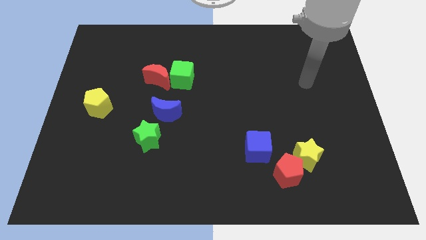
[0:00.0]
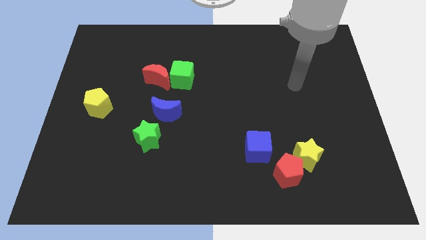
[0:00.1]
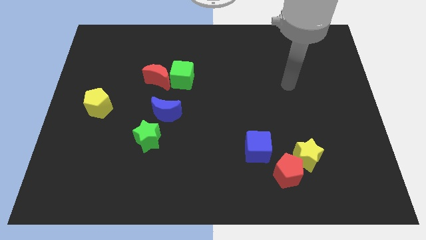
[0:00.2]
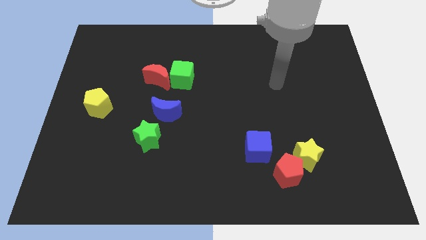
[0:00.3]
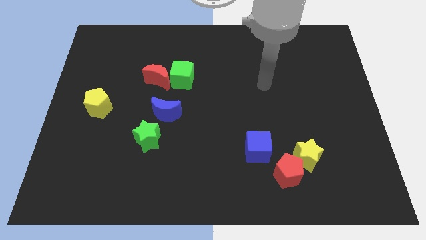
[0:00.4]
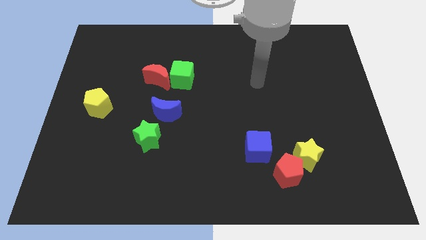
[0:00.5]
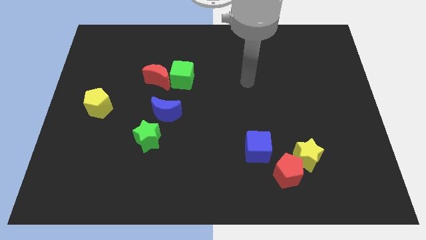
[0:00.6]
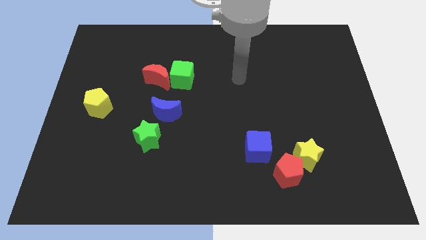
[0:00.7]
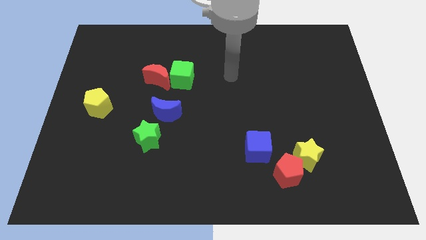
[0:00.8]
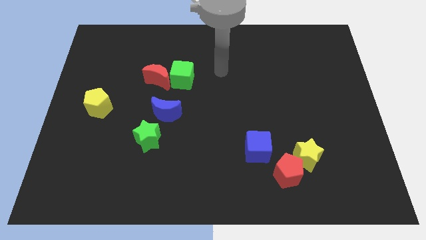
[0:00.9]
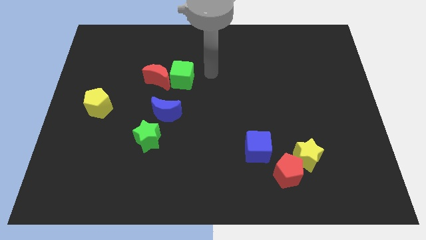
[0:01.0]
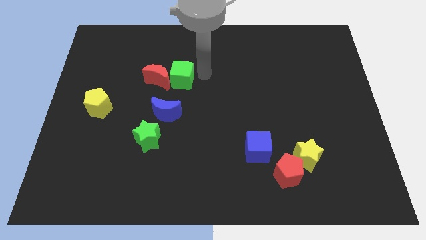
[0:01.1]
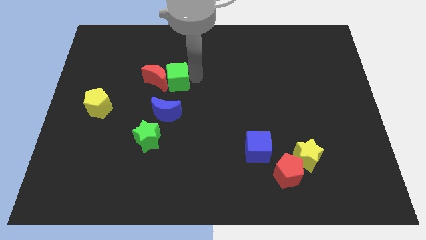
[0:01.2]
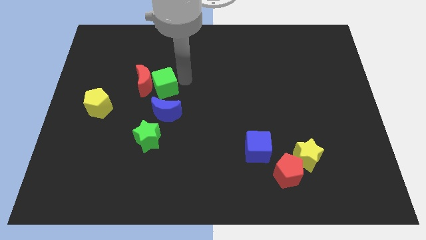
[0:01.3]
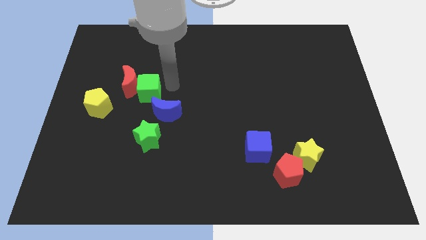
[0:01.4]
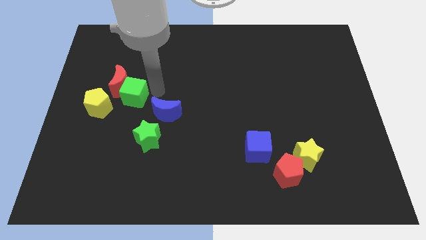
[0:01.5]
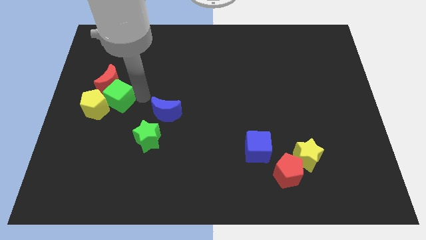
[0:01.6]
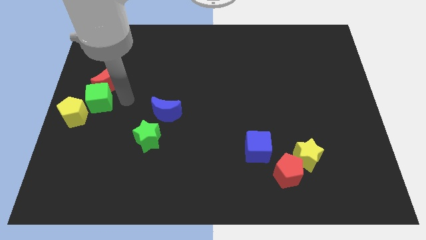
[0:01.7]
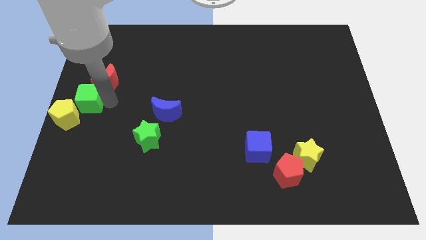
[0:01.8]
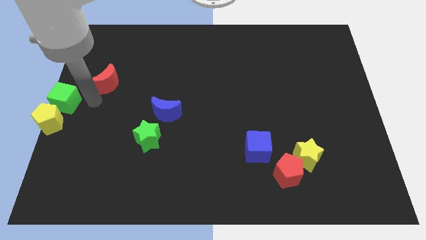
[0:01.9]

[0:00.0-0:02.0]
pull the red moon apart from the green cube

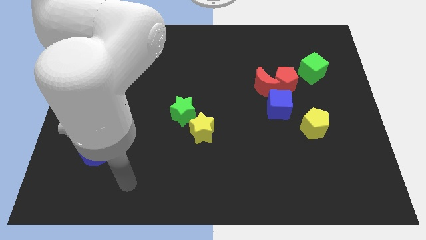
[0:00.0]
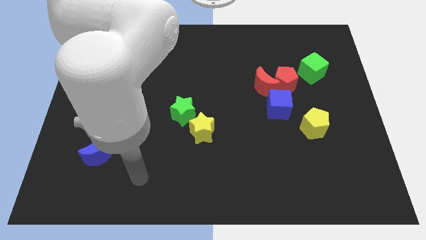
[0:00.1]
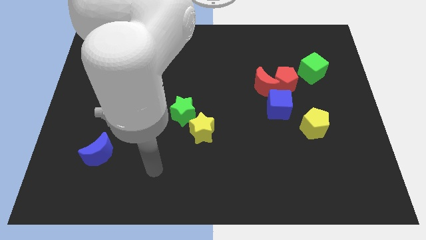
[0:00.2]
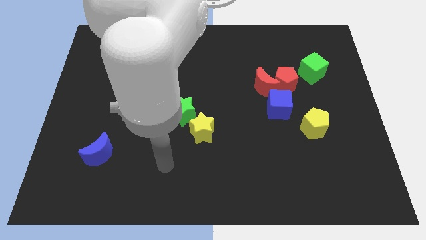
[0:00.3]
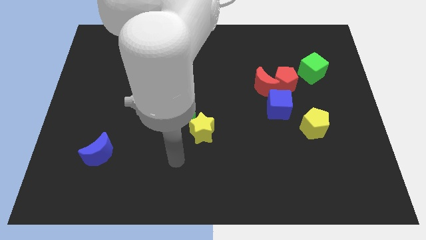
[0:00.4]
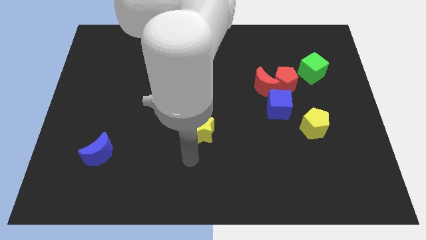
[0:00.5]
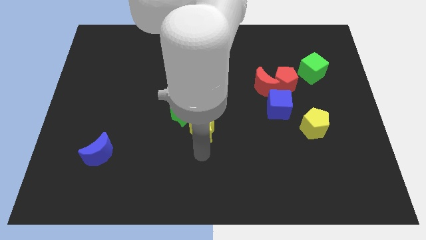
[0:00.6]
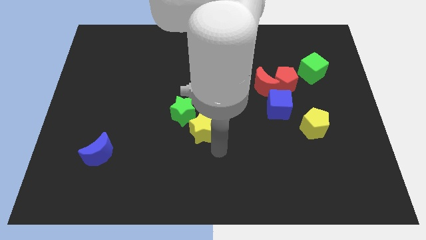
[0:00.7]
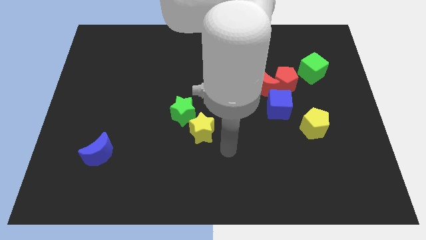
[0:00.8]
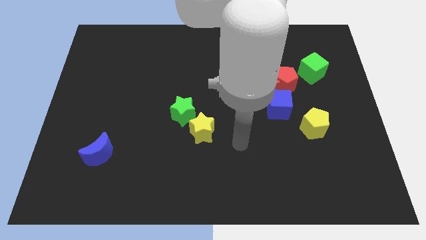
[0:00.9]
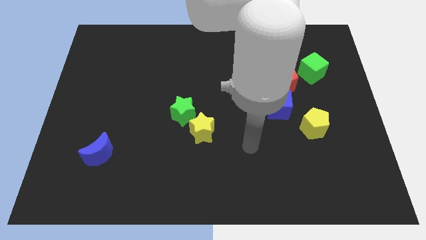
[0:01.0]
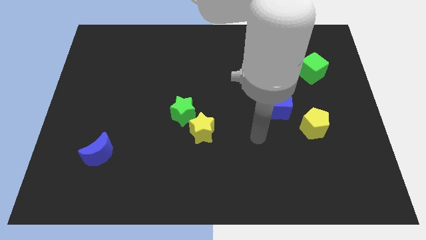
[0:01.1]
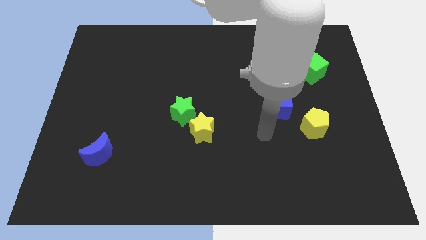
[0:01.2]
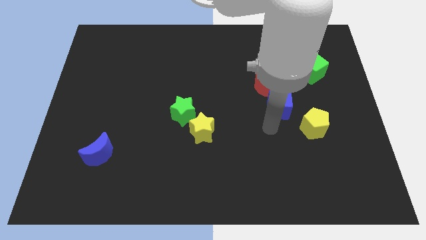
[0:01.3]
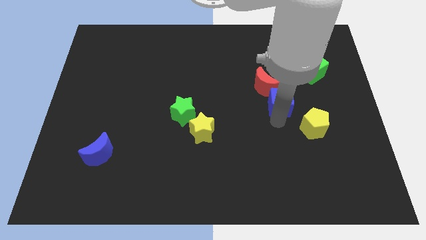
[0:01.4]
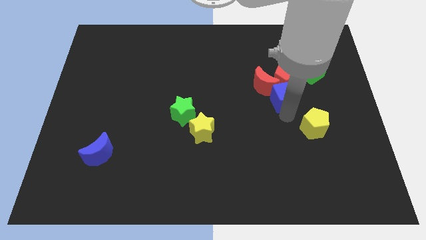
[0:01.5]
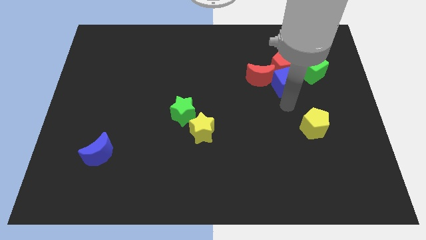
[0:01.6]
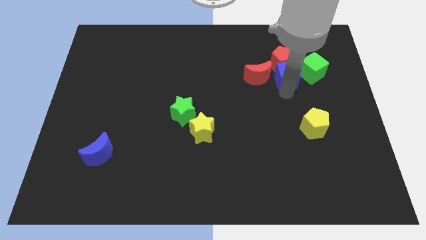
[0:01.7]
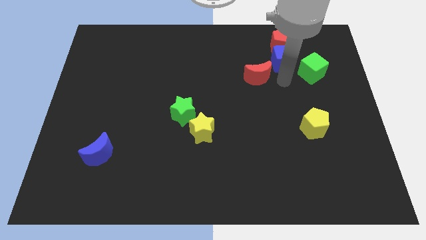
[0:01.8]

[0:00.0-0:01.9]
separate the red moon from the red pentagon and blue cube

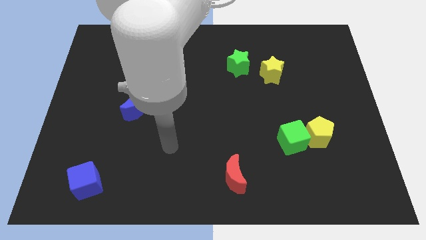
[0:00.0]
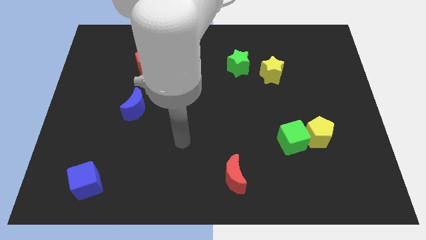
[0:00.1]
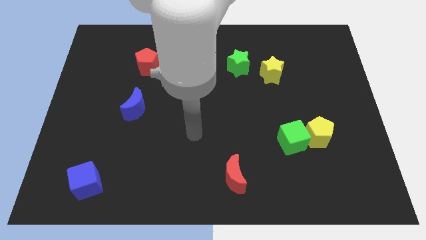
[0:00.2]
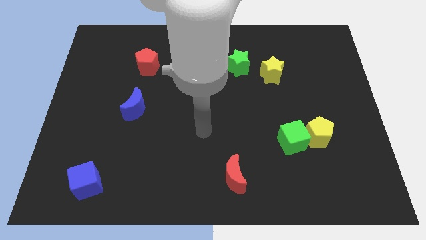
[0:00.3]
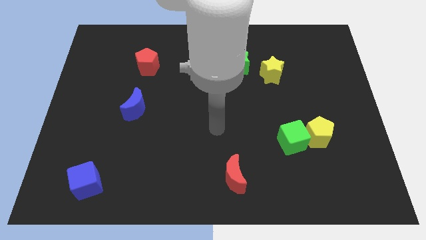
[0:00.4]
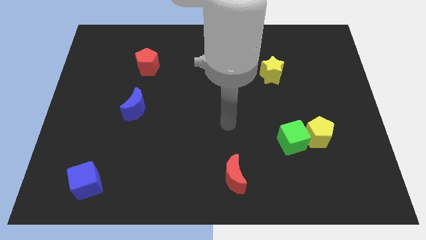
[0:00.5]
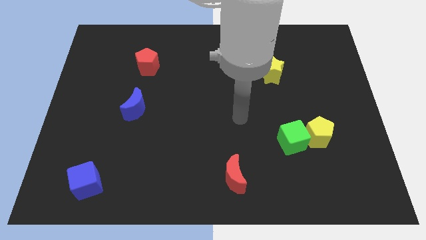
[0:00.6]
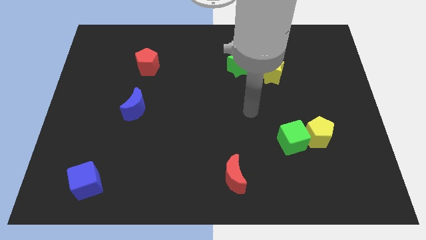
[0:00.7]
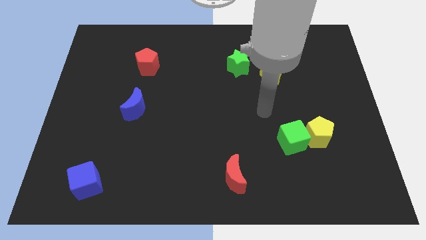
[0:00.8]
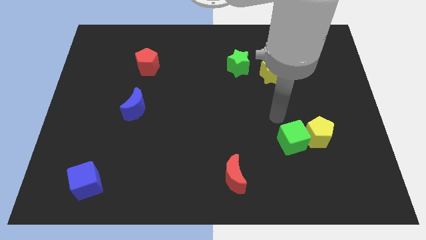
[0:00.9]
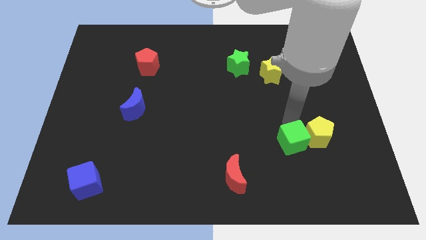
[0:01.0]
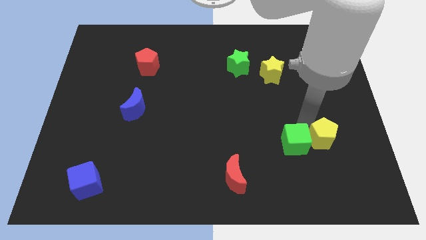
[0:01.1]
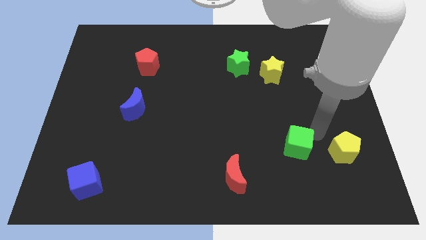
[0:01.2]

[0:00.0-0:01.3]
separate the green cube from the yellow pentagon

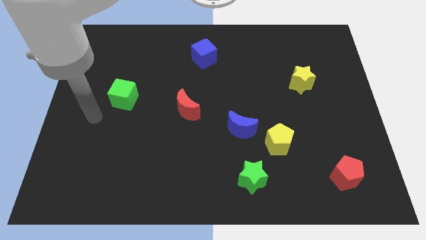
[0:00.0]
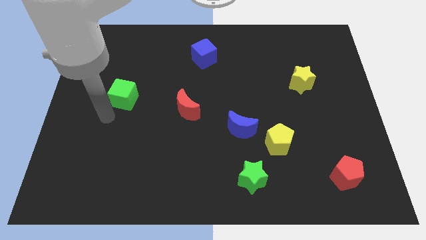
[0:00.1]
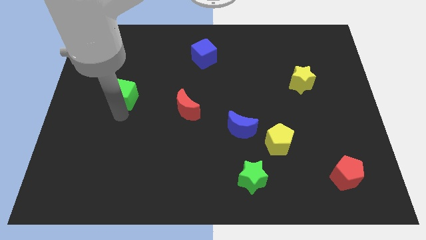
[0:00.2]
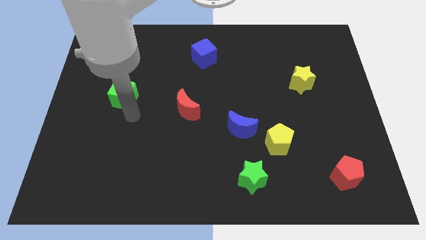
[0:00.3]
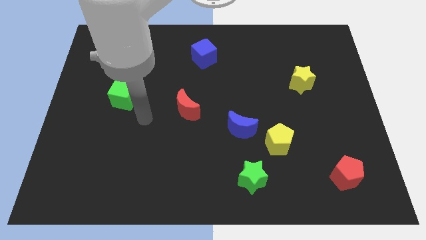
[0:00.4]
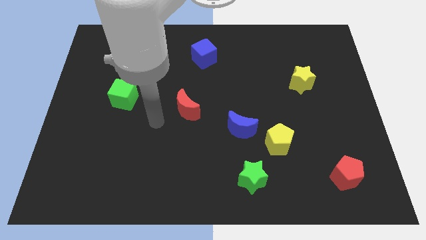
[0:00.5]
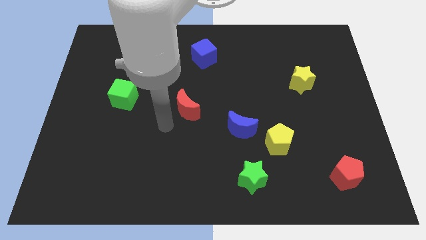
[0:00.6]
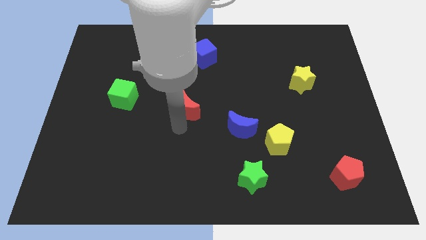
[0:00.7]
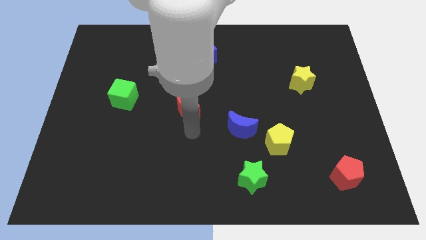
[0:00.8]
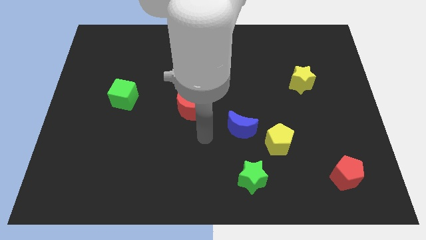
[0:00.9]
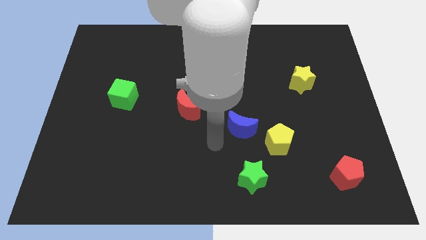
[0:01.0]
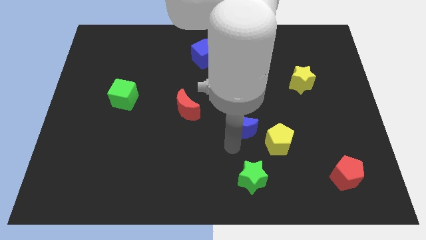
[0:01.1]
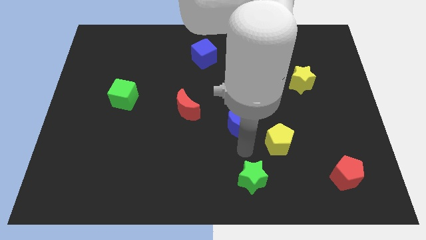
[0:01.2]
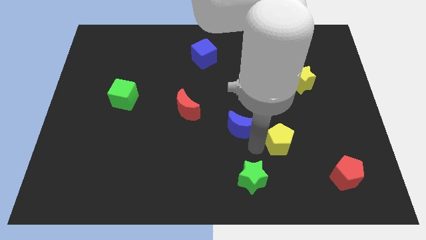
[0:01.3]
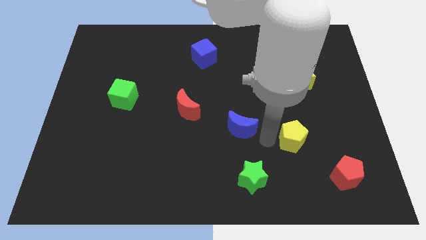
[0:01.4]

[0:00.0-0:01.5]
separate the blue moon from the yellow pentagon

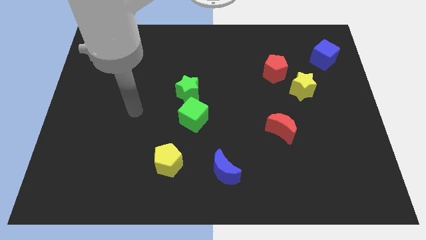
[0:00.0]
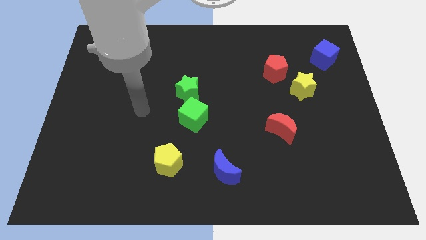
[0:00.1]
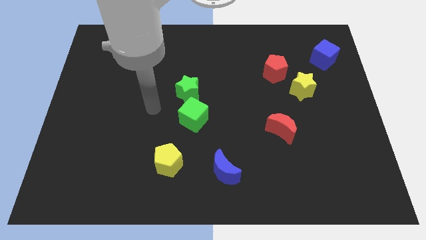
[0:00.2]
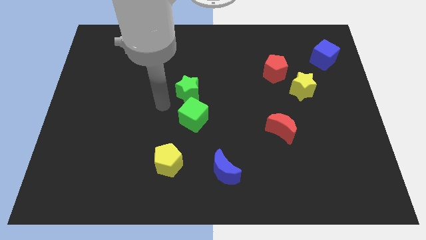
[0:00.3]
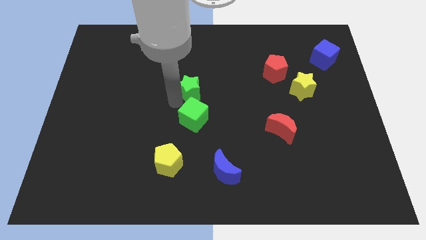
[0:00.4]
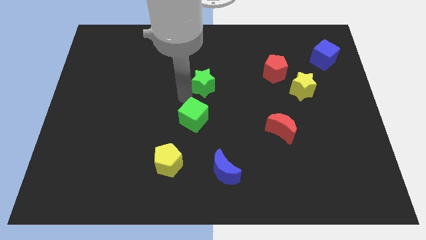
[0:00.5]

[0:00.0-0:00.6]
separate the green cube from the green star

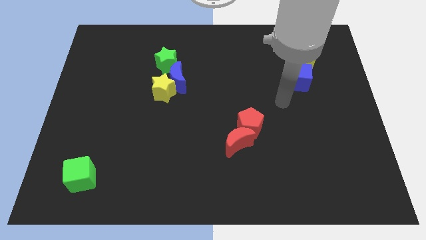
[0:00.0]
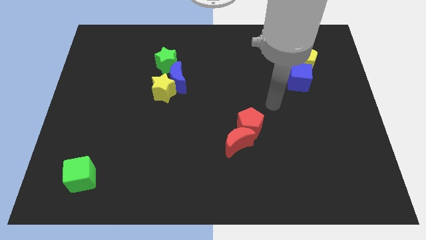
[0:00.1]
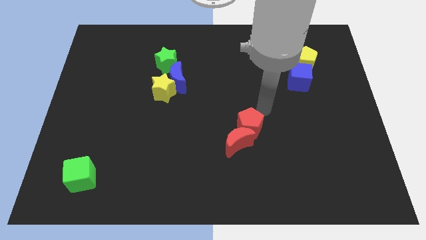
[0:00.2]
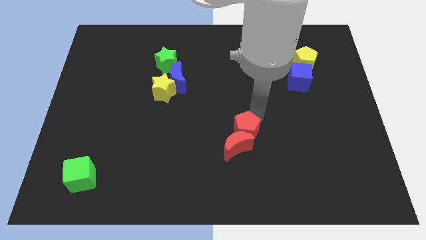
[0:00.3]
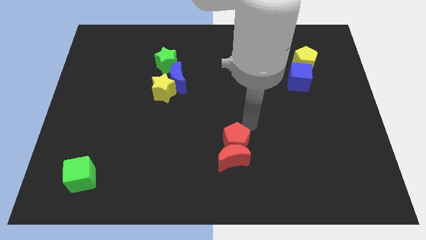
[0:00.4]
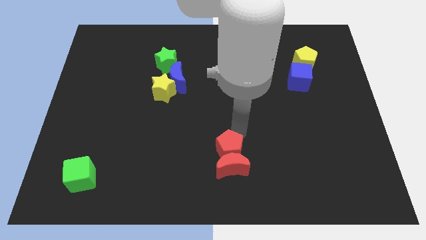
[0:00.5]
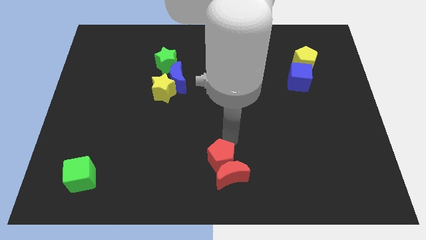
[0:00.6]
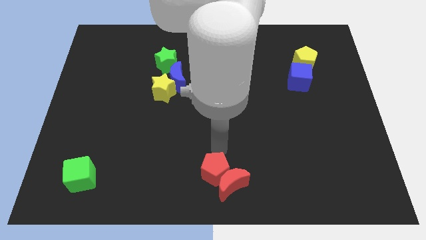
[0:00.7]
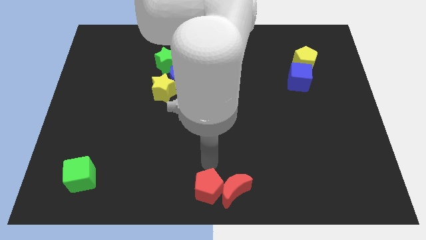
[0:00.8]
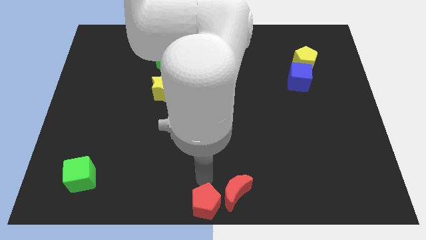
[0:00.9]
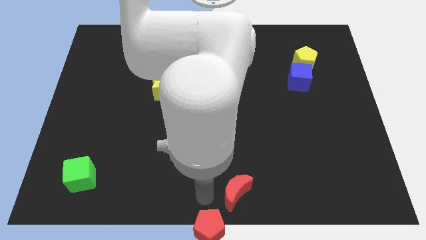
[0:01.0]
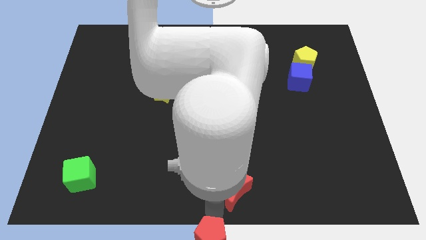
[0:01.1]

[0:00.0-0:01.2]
separate the red moon from the red pentagon

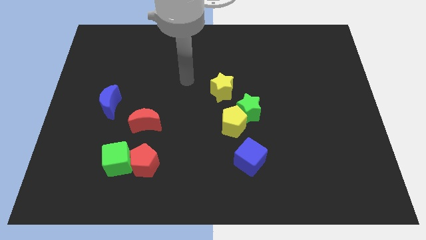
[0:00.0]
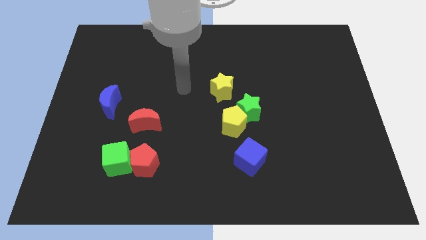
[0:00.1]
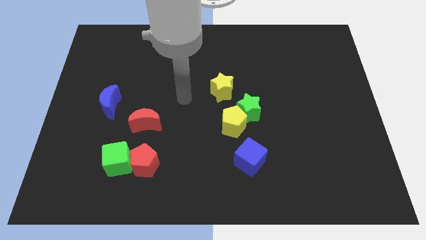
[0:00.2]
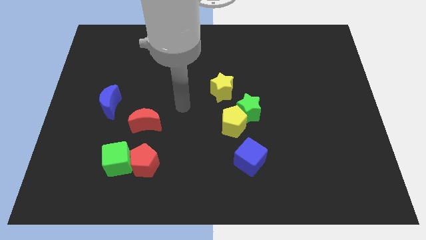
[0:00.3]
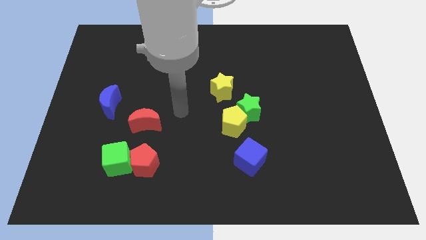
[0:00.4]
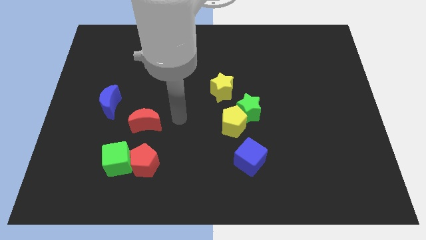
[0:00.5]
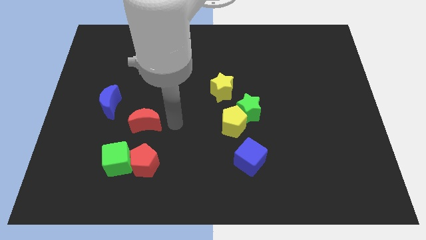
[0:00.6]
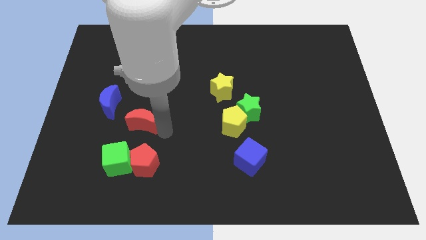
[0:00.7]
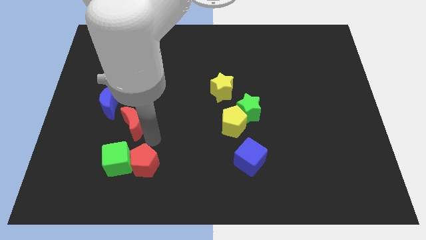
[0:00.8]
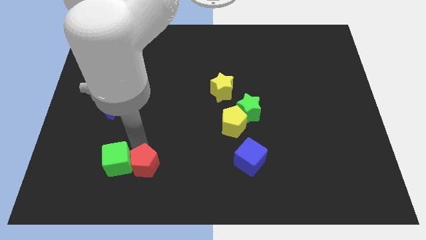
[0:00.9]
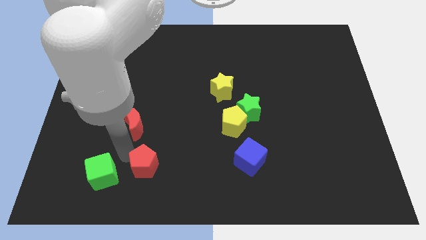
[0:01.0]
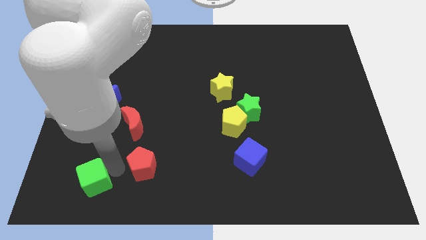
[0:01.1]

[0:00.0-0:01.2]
move the red pentagon away from the green cube
